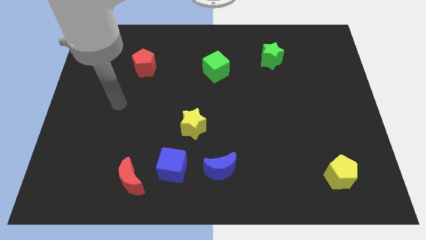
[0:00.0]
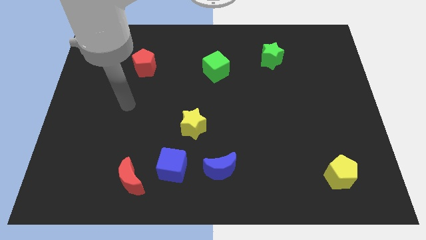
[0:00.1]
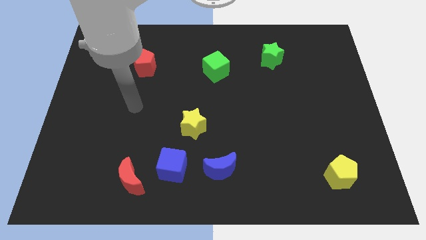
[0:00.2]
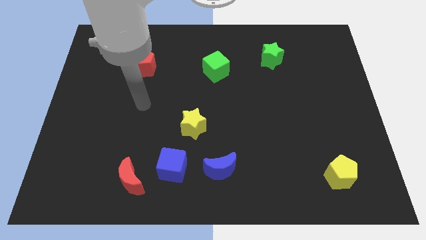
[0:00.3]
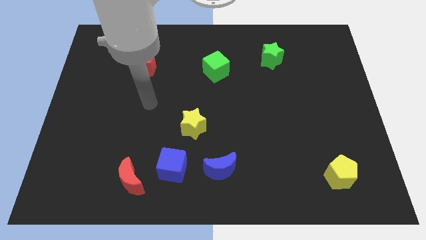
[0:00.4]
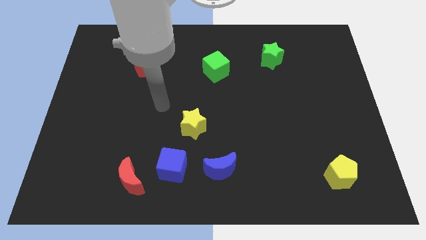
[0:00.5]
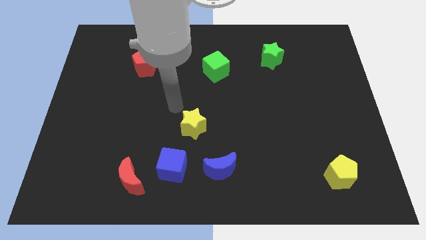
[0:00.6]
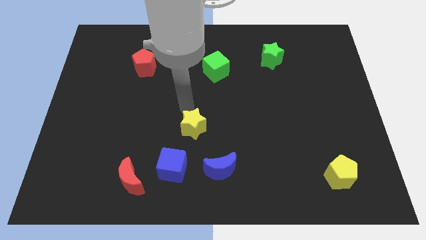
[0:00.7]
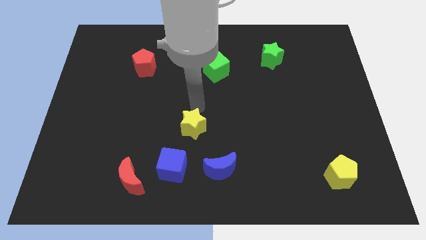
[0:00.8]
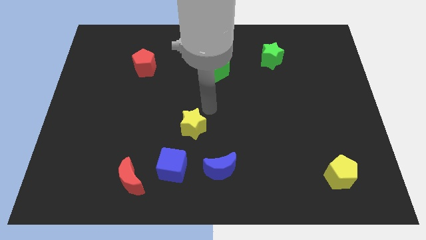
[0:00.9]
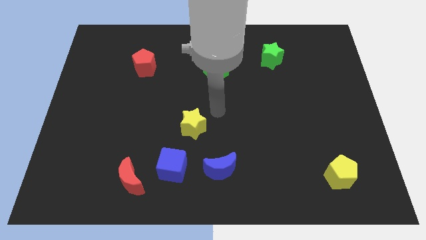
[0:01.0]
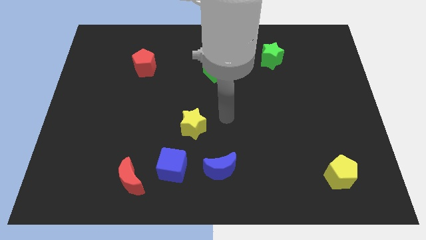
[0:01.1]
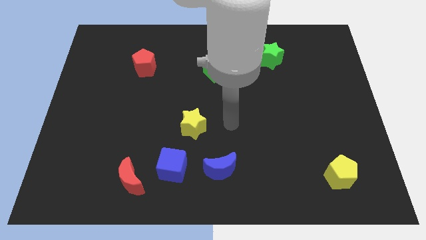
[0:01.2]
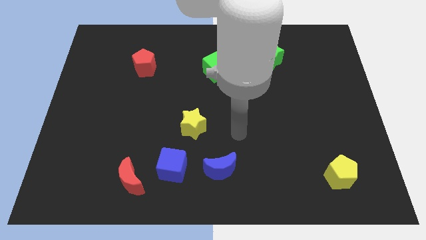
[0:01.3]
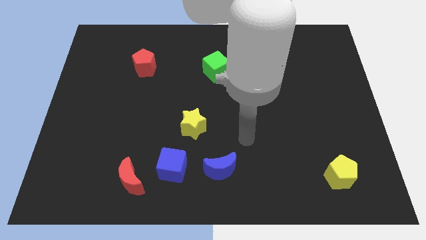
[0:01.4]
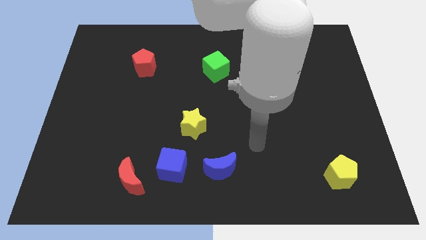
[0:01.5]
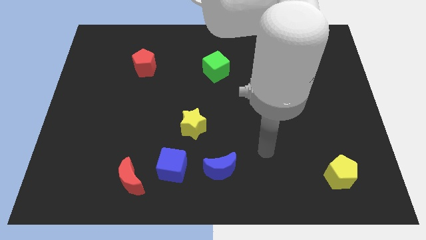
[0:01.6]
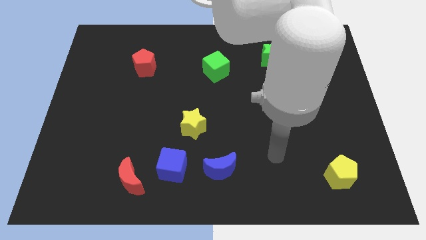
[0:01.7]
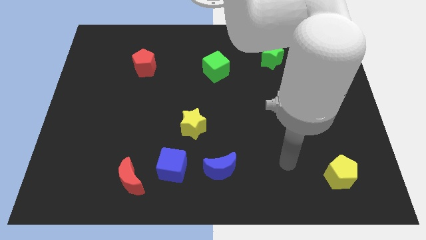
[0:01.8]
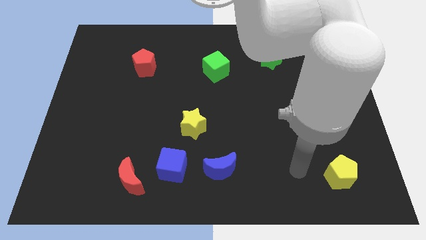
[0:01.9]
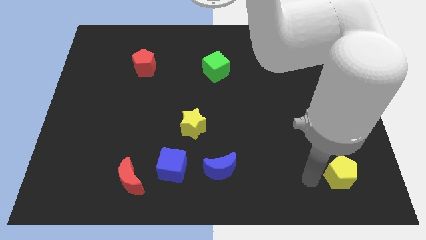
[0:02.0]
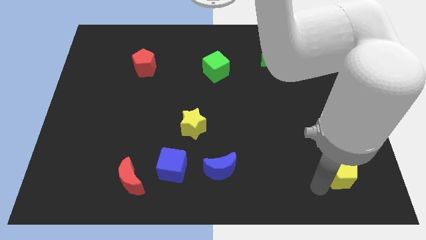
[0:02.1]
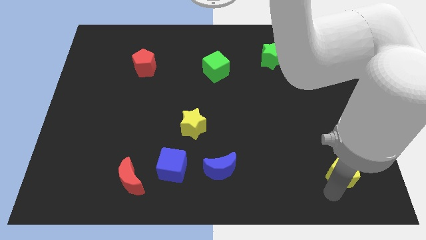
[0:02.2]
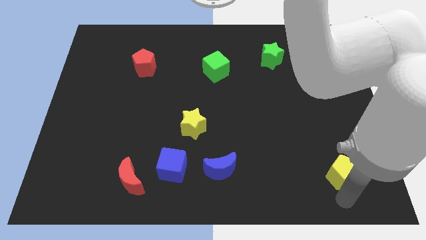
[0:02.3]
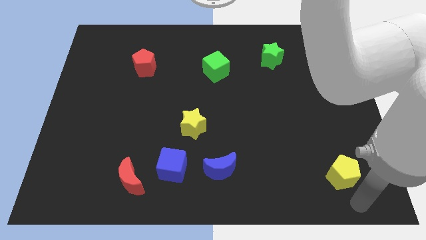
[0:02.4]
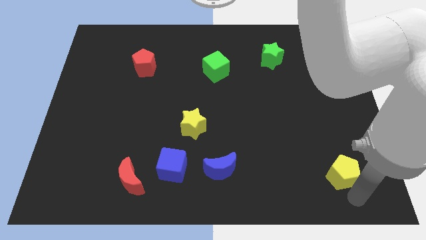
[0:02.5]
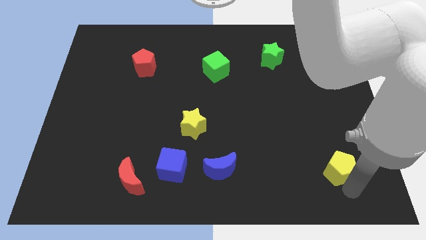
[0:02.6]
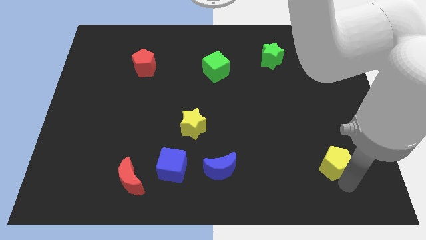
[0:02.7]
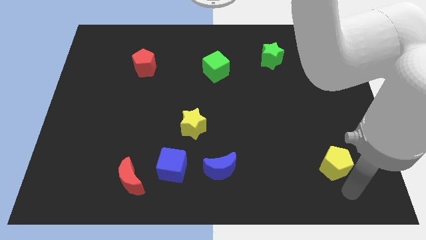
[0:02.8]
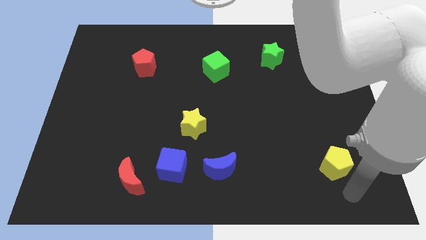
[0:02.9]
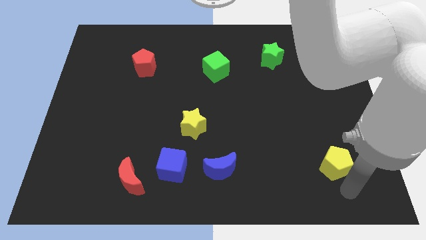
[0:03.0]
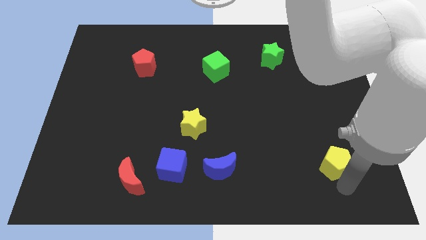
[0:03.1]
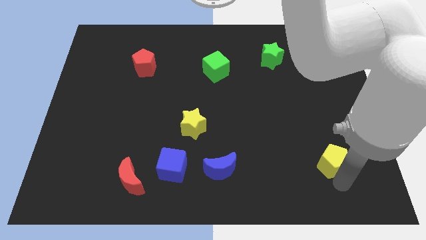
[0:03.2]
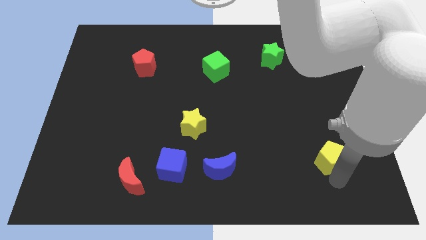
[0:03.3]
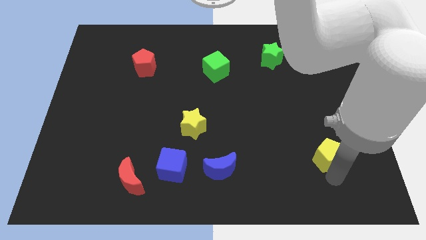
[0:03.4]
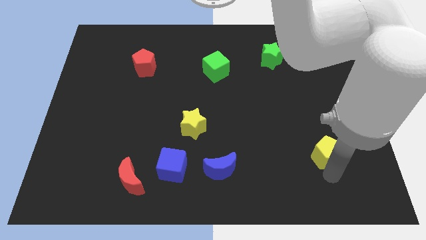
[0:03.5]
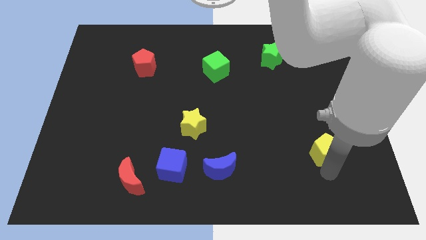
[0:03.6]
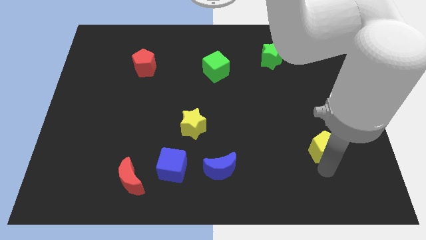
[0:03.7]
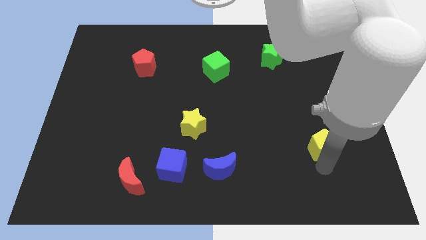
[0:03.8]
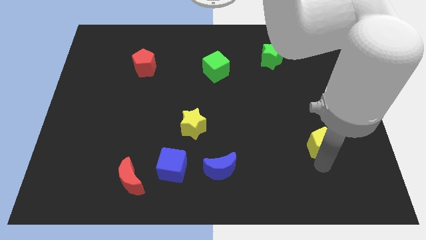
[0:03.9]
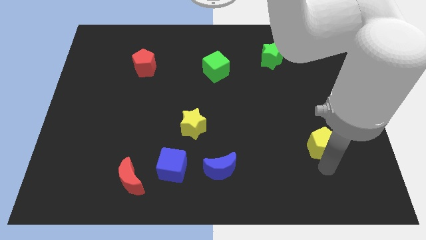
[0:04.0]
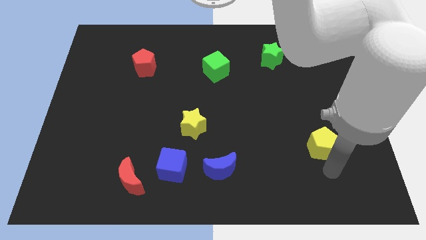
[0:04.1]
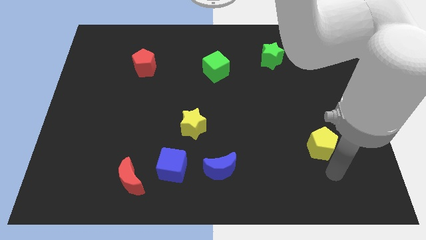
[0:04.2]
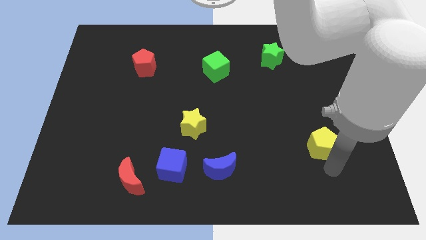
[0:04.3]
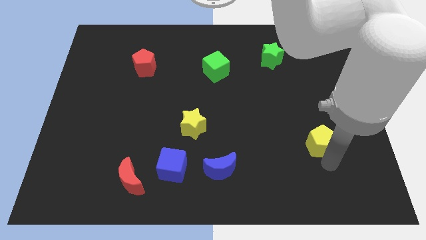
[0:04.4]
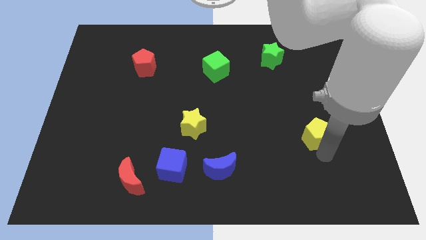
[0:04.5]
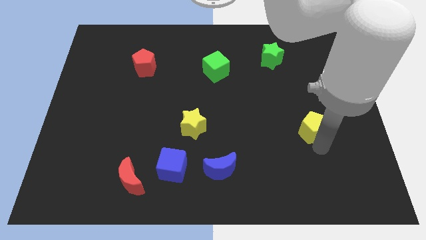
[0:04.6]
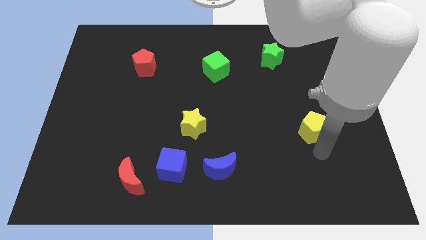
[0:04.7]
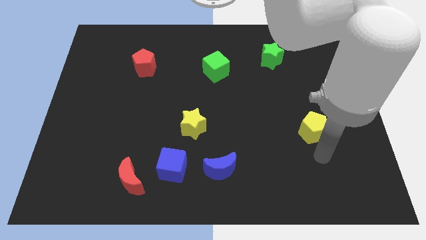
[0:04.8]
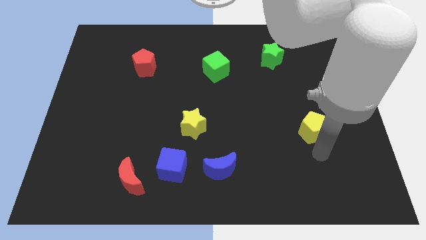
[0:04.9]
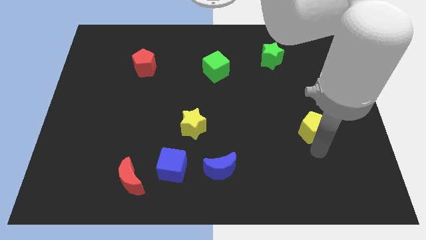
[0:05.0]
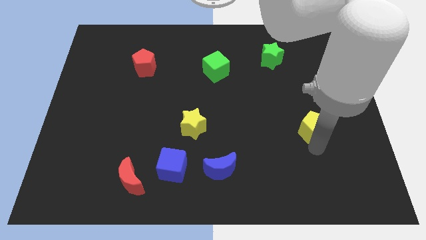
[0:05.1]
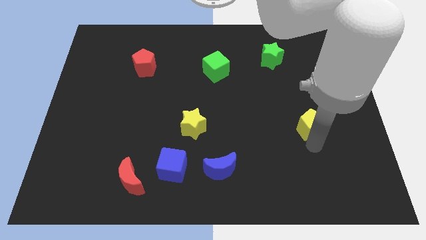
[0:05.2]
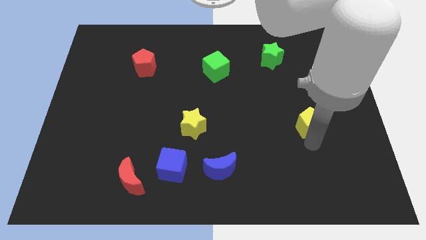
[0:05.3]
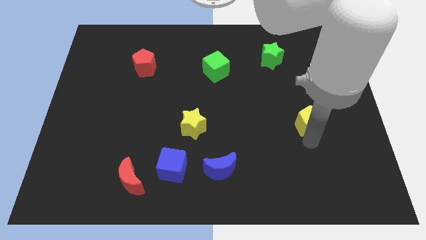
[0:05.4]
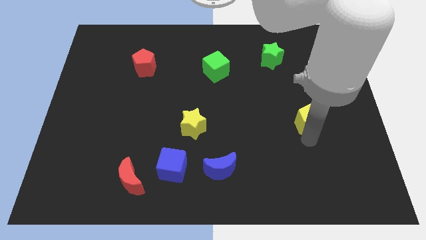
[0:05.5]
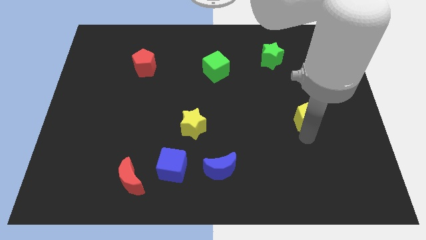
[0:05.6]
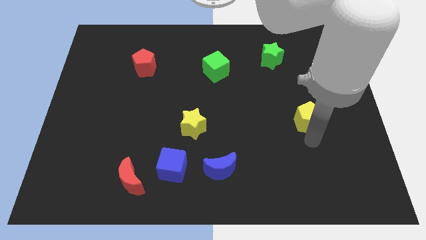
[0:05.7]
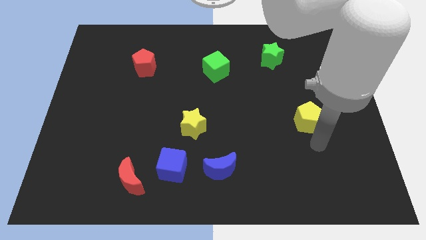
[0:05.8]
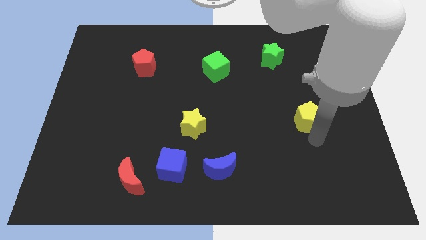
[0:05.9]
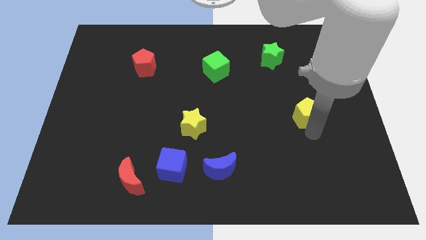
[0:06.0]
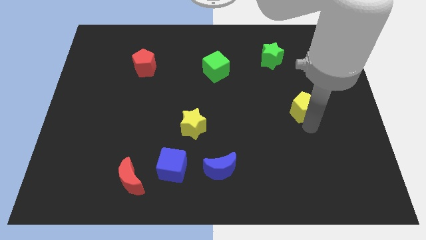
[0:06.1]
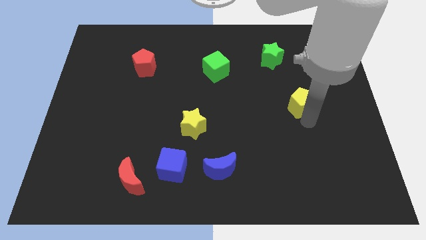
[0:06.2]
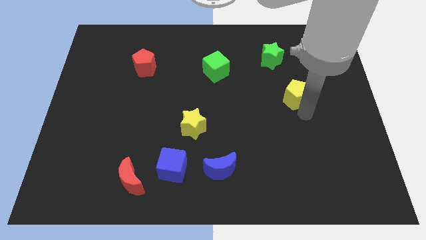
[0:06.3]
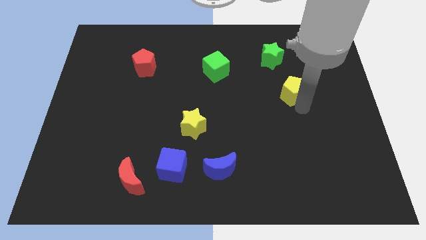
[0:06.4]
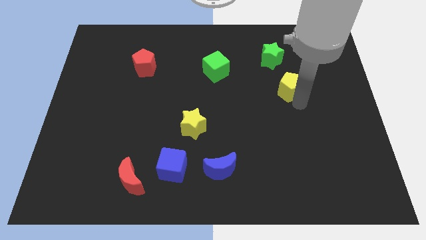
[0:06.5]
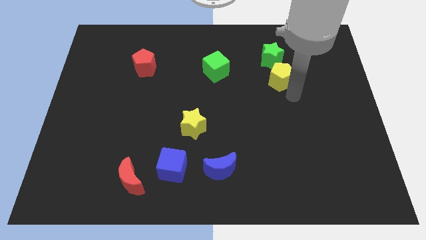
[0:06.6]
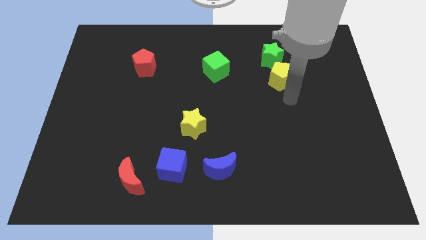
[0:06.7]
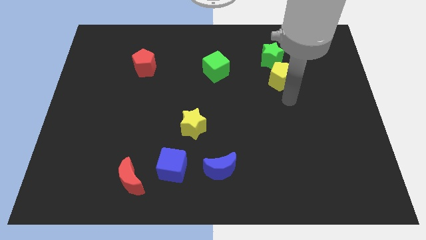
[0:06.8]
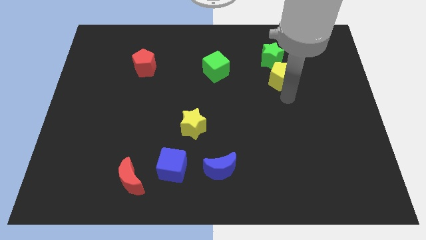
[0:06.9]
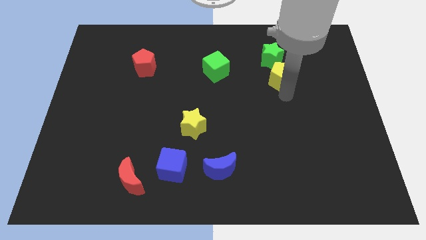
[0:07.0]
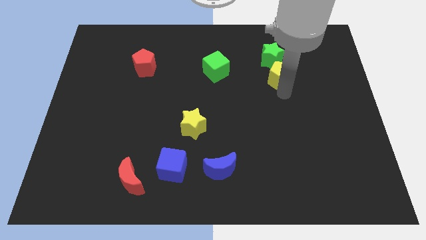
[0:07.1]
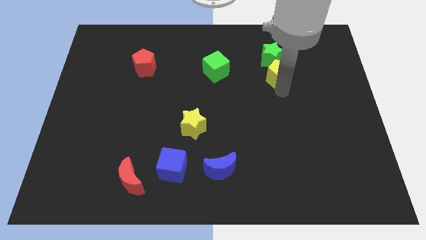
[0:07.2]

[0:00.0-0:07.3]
move the yellow pentagon towards the green star
